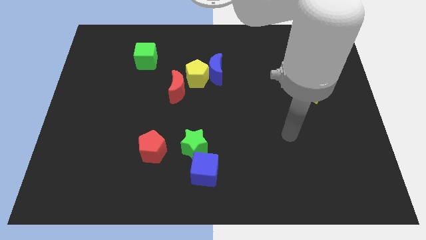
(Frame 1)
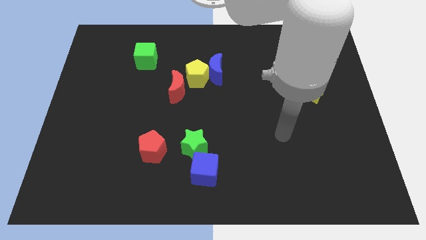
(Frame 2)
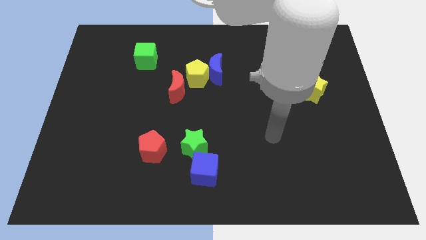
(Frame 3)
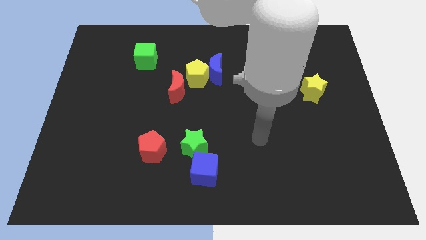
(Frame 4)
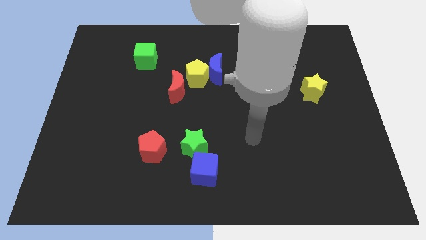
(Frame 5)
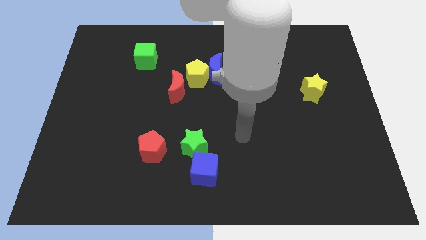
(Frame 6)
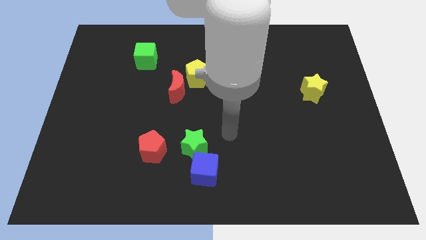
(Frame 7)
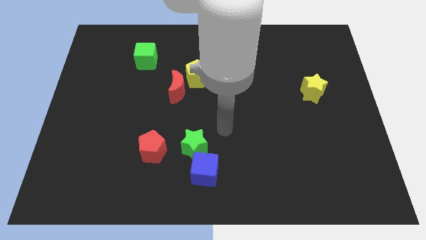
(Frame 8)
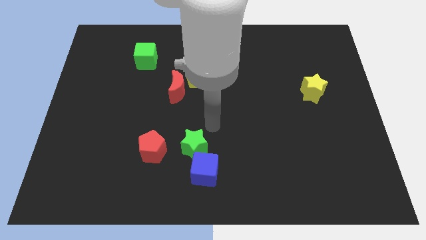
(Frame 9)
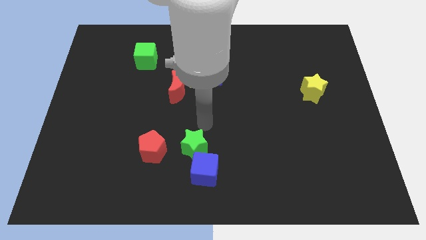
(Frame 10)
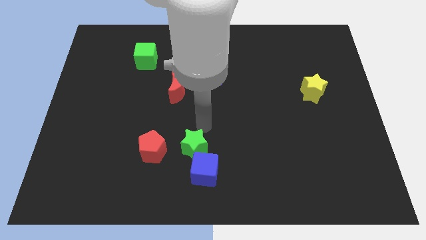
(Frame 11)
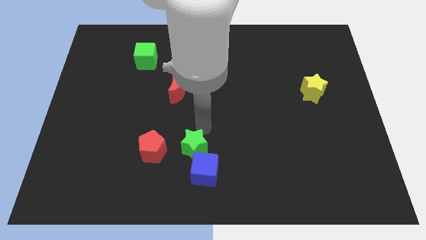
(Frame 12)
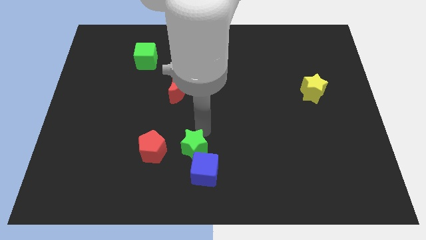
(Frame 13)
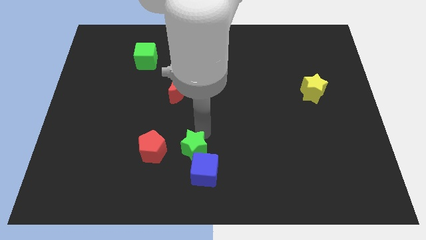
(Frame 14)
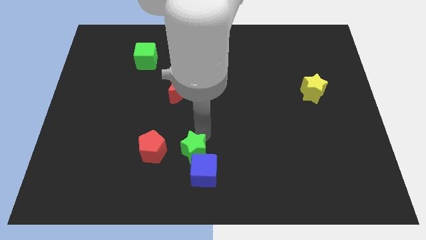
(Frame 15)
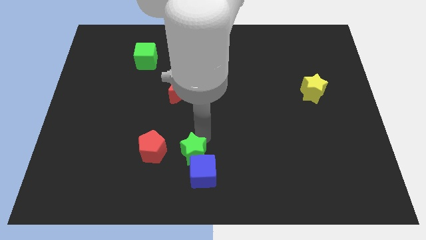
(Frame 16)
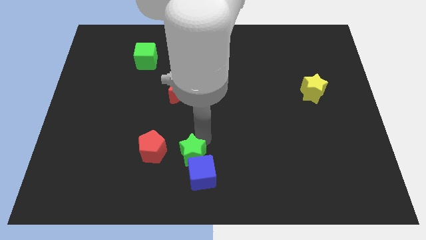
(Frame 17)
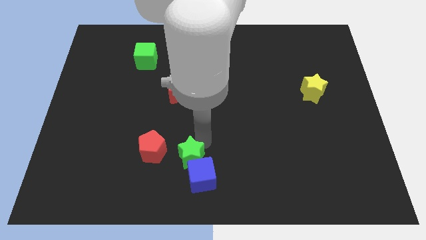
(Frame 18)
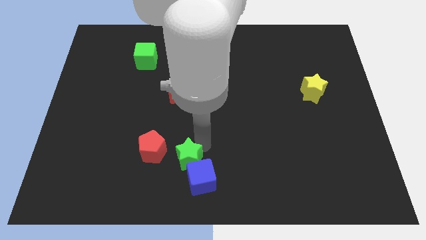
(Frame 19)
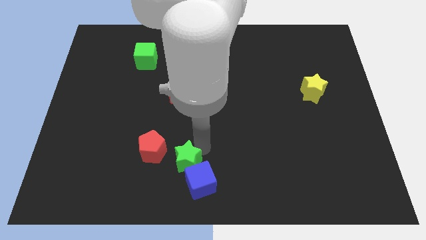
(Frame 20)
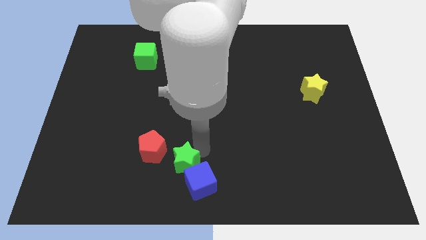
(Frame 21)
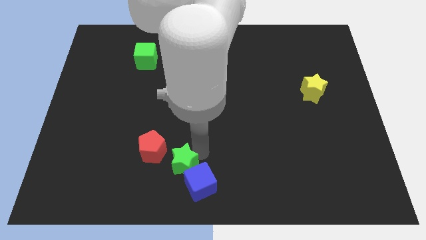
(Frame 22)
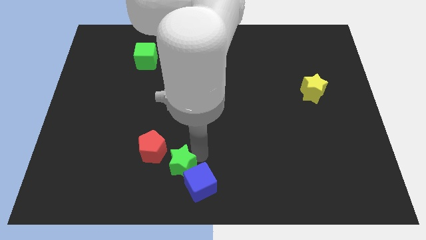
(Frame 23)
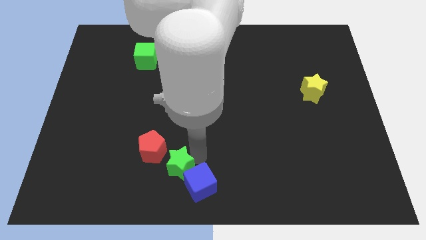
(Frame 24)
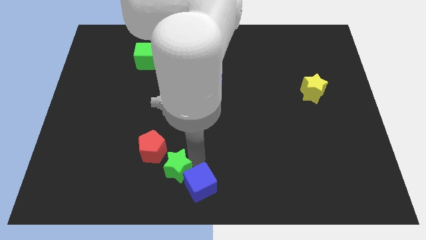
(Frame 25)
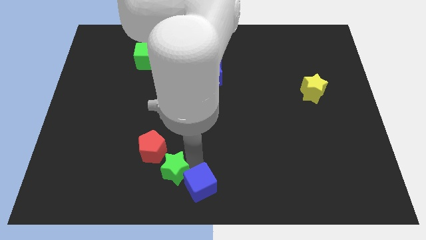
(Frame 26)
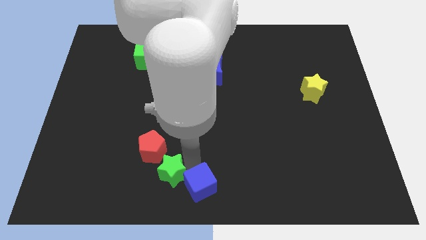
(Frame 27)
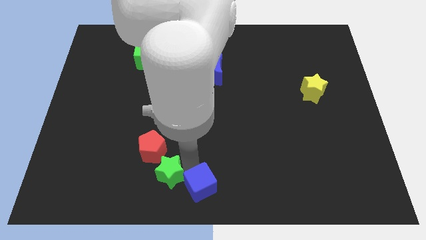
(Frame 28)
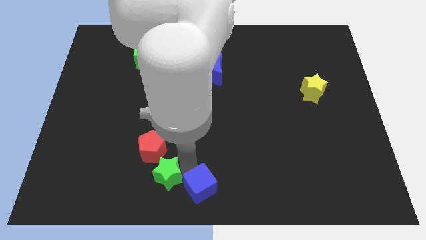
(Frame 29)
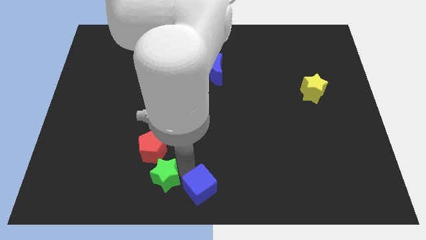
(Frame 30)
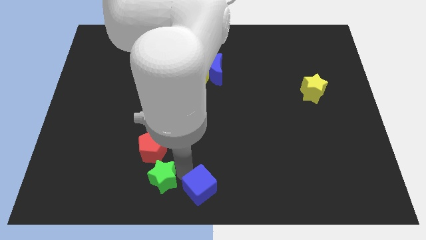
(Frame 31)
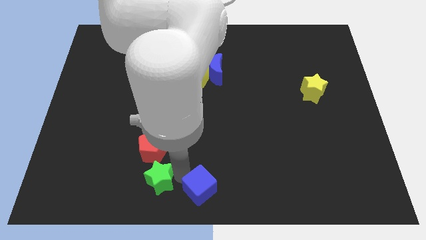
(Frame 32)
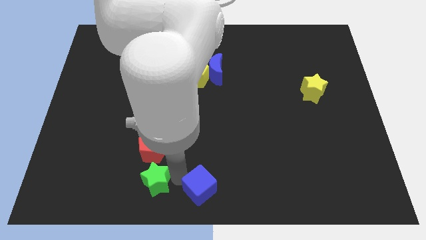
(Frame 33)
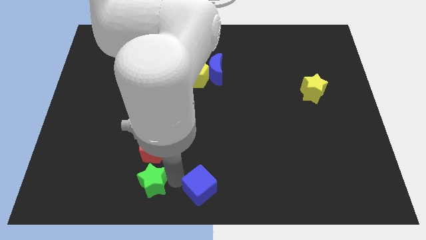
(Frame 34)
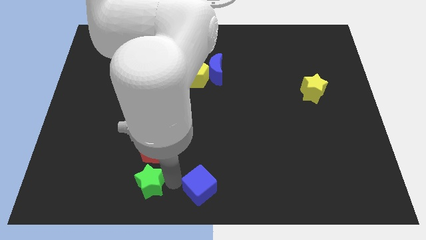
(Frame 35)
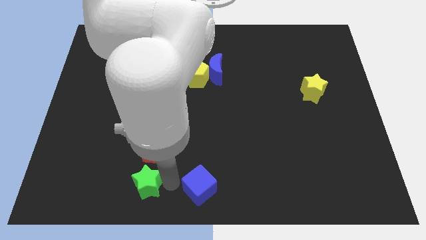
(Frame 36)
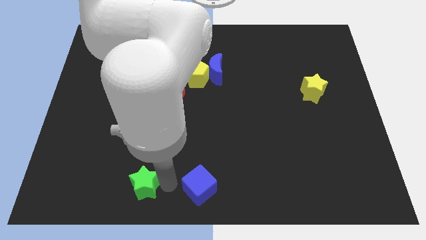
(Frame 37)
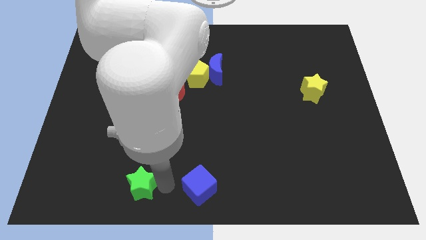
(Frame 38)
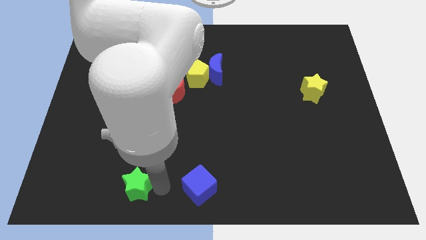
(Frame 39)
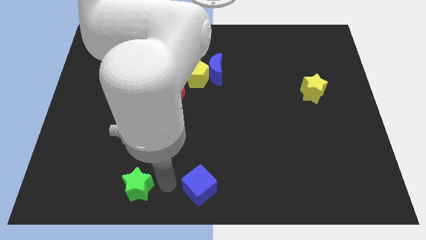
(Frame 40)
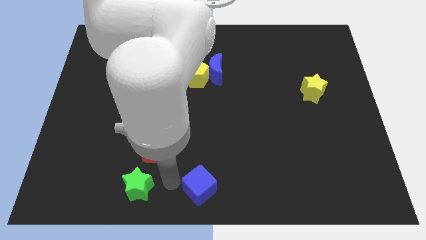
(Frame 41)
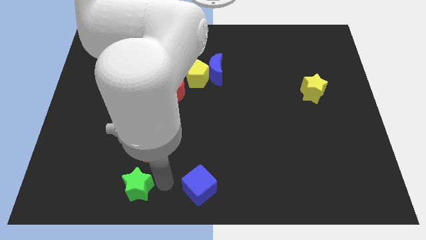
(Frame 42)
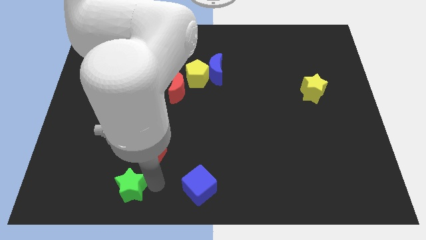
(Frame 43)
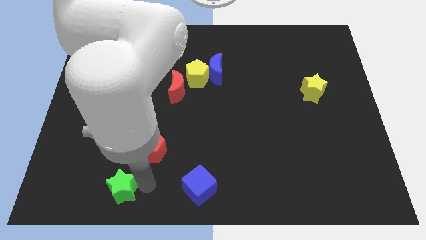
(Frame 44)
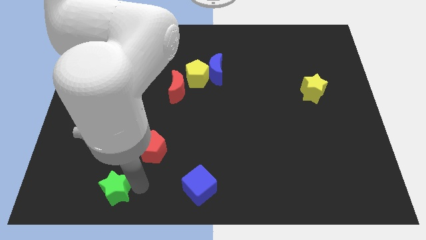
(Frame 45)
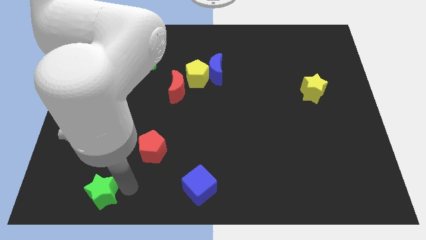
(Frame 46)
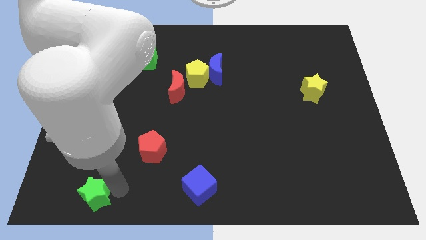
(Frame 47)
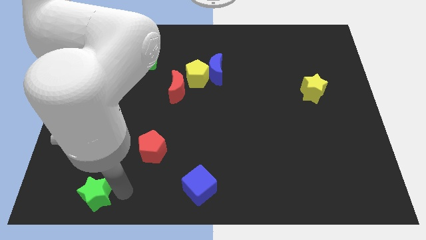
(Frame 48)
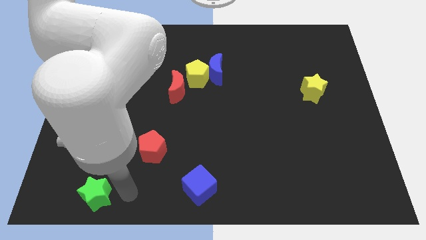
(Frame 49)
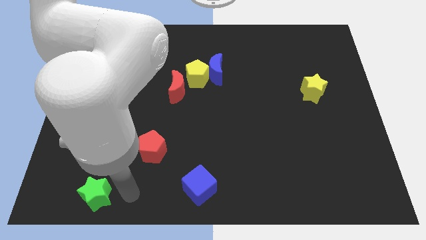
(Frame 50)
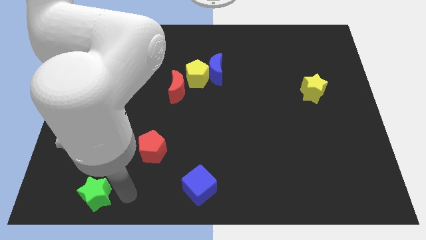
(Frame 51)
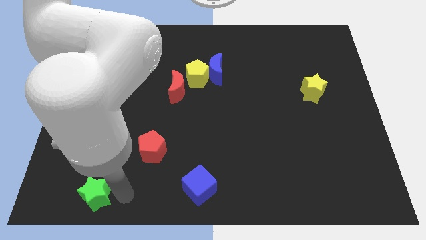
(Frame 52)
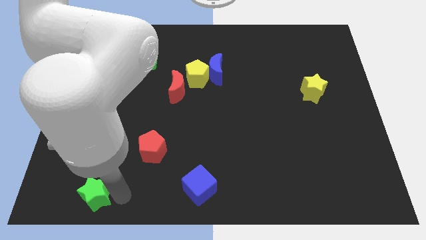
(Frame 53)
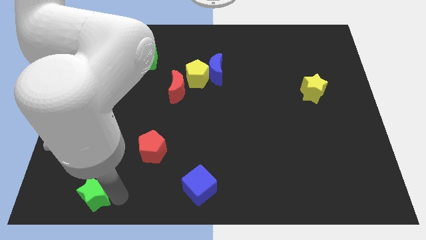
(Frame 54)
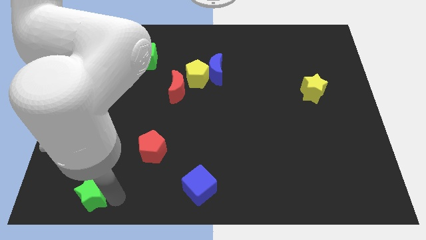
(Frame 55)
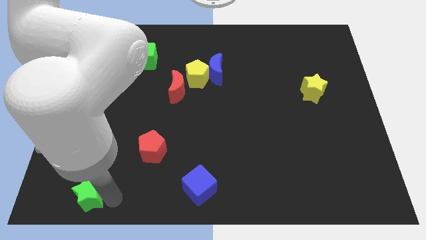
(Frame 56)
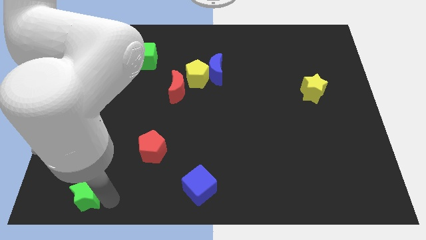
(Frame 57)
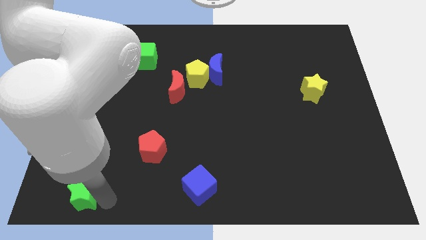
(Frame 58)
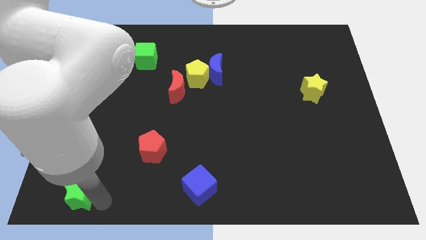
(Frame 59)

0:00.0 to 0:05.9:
move the green star to the bottom left
